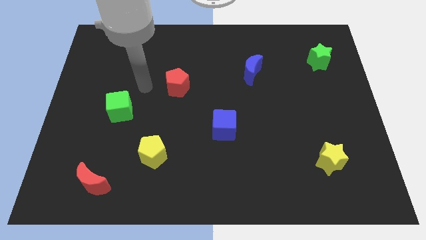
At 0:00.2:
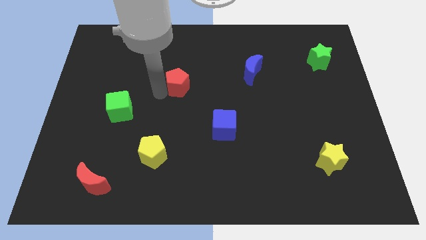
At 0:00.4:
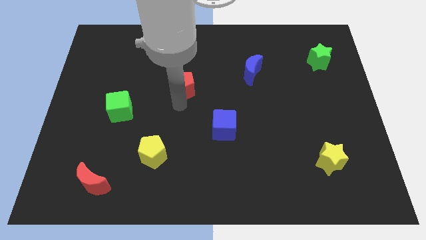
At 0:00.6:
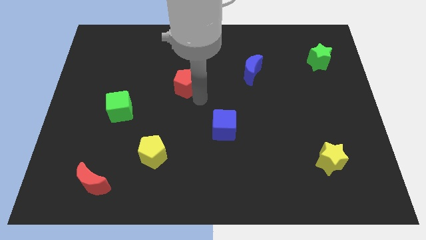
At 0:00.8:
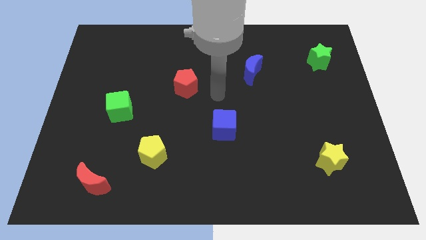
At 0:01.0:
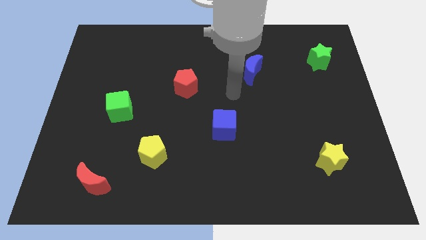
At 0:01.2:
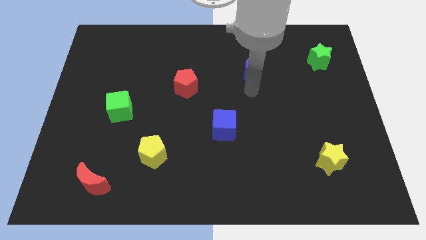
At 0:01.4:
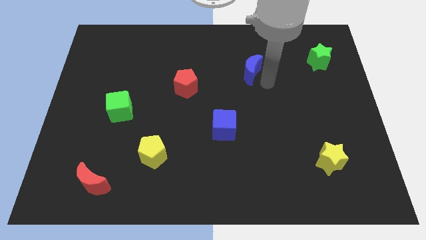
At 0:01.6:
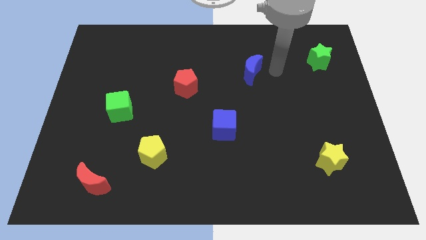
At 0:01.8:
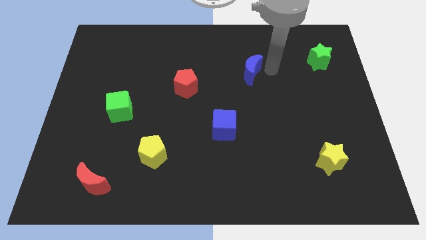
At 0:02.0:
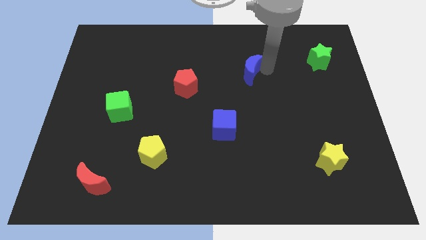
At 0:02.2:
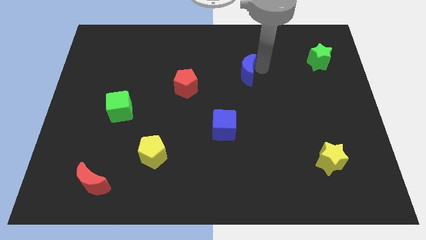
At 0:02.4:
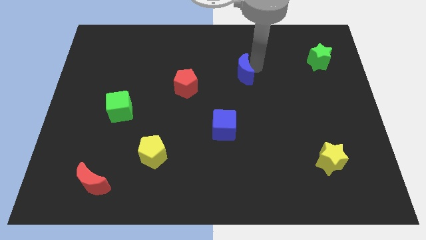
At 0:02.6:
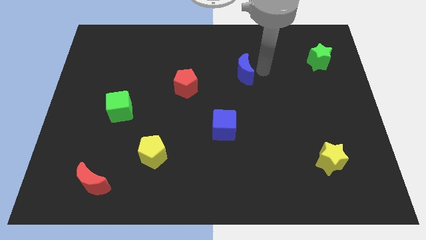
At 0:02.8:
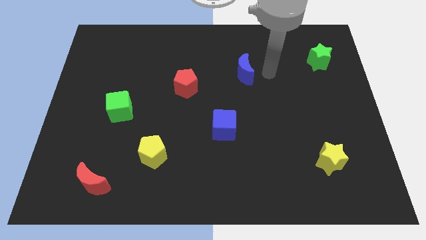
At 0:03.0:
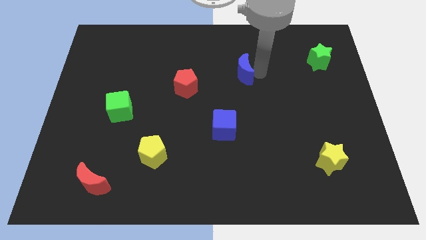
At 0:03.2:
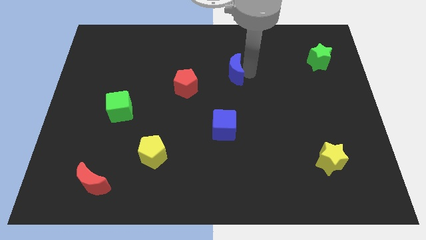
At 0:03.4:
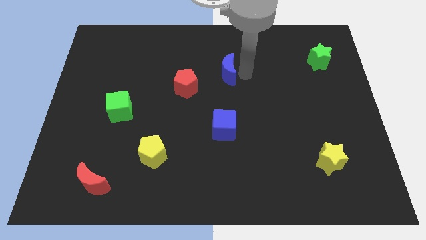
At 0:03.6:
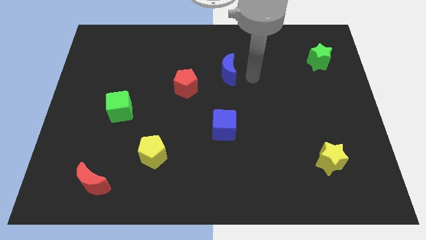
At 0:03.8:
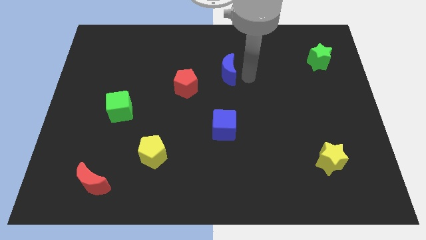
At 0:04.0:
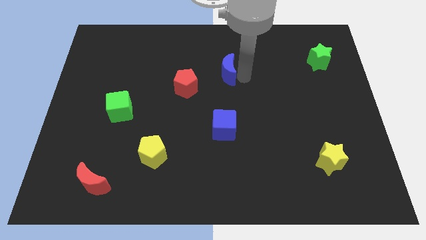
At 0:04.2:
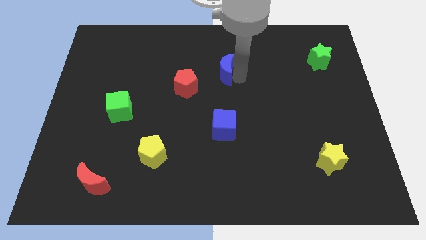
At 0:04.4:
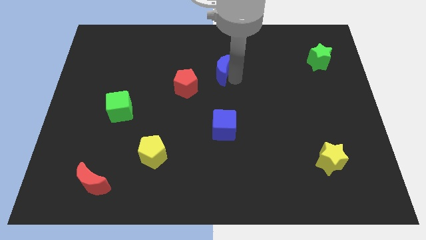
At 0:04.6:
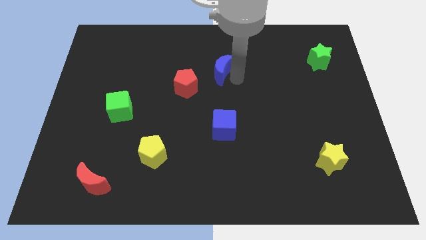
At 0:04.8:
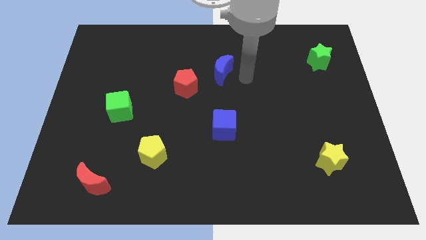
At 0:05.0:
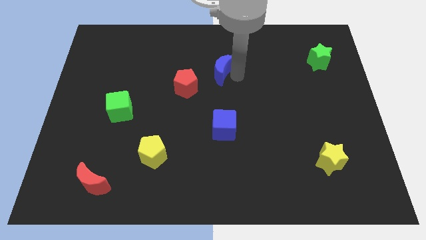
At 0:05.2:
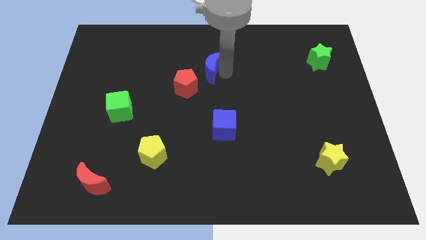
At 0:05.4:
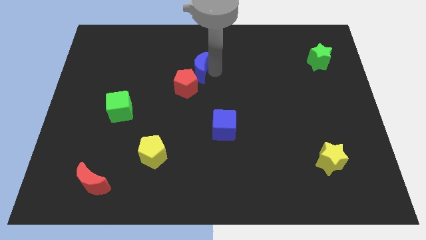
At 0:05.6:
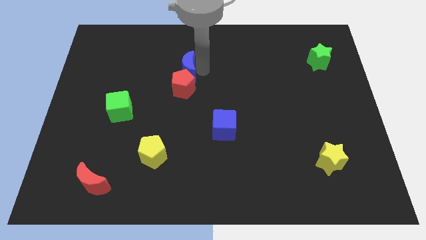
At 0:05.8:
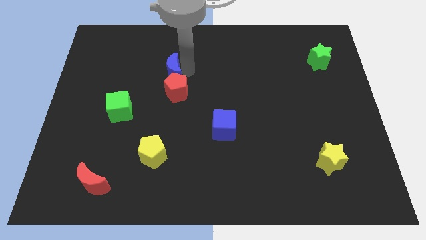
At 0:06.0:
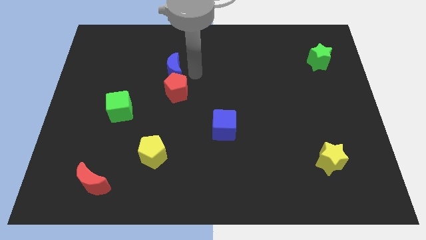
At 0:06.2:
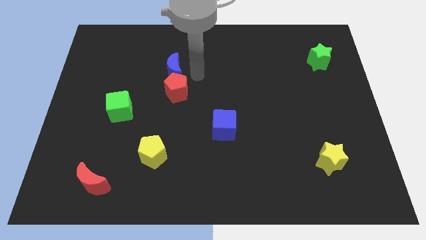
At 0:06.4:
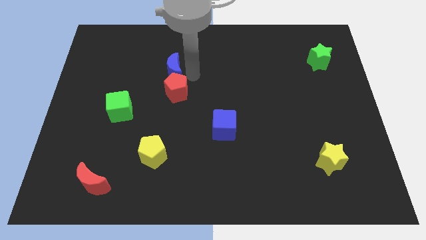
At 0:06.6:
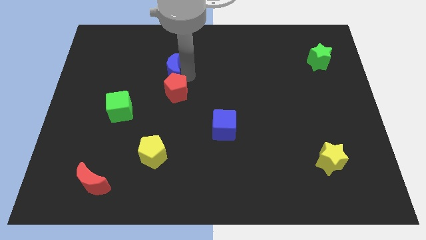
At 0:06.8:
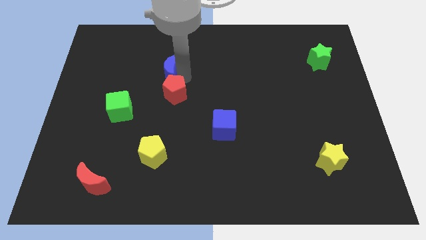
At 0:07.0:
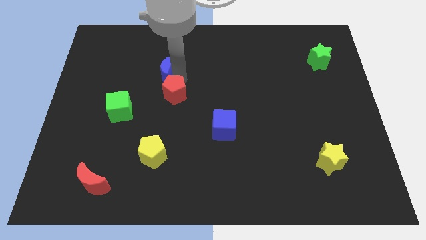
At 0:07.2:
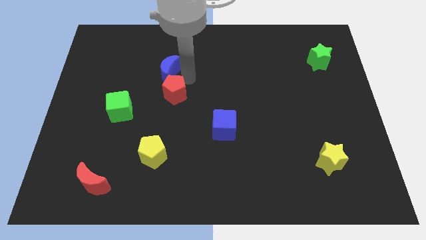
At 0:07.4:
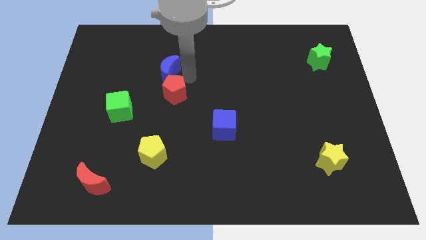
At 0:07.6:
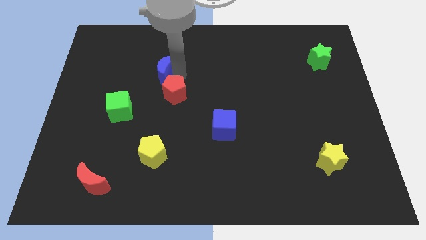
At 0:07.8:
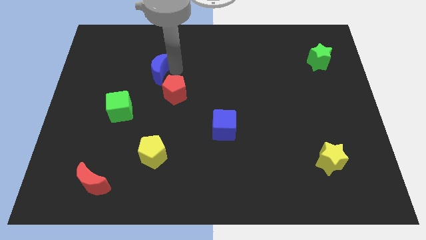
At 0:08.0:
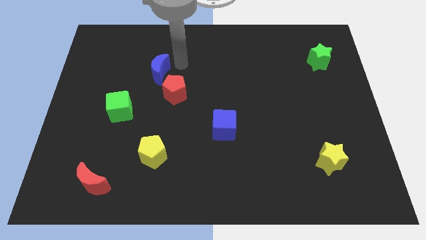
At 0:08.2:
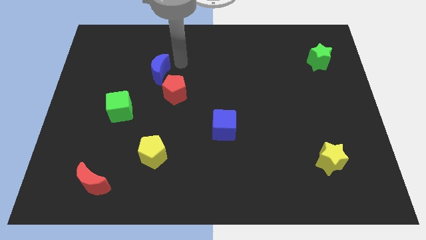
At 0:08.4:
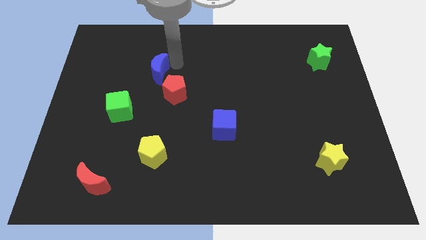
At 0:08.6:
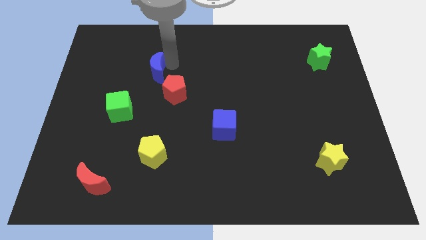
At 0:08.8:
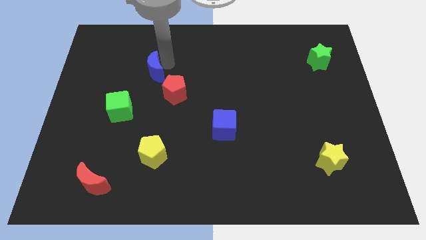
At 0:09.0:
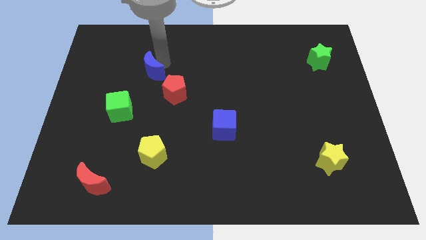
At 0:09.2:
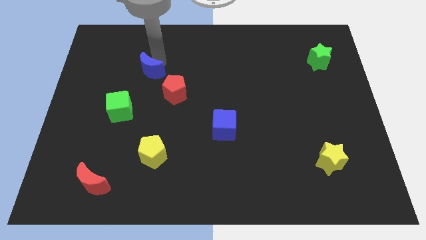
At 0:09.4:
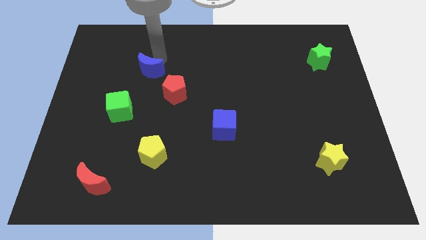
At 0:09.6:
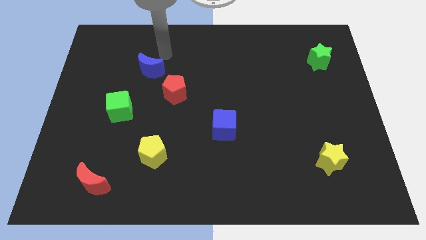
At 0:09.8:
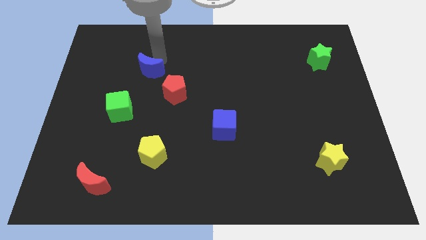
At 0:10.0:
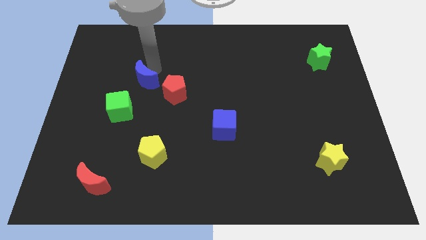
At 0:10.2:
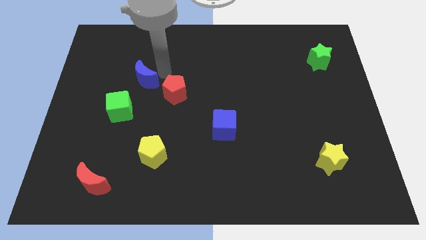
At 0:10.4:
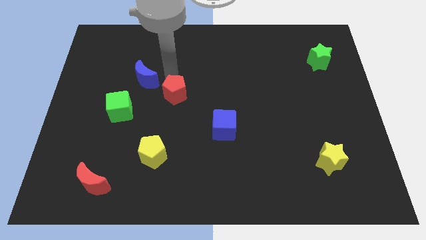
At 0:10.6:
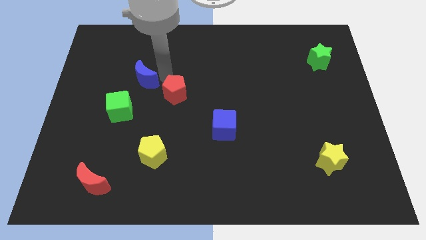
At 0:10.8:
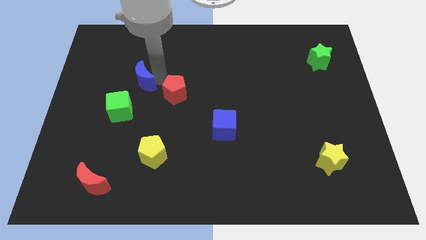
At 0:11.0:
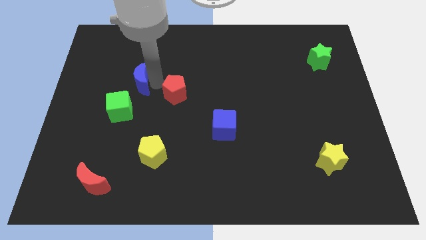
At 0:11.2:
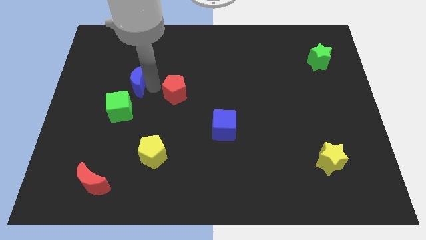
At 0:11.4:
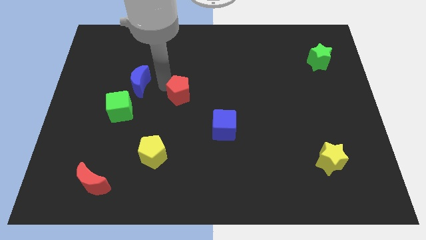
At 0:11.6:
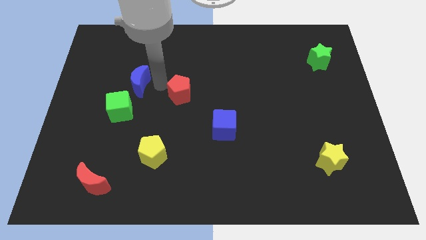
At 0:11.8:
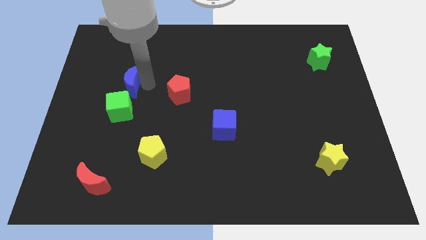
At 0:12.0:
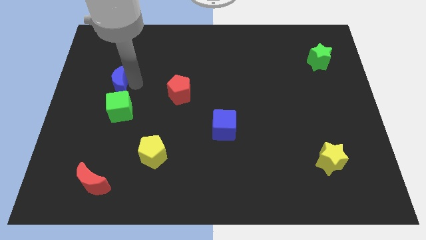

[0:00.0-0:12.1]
slide the blue moon to the top left of the green cube

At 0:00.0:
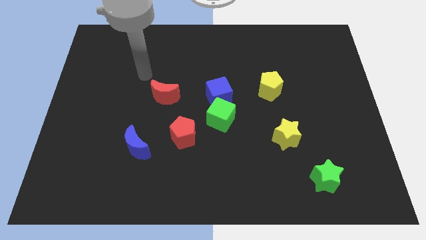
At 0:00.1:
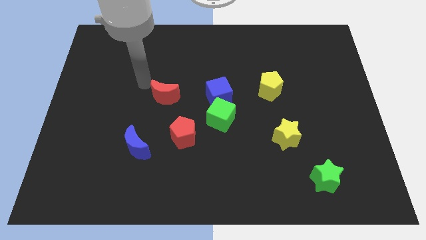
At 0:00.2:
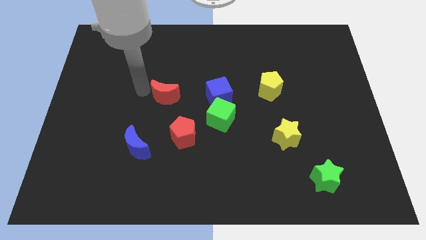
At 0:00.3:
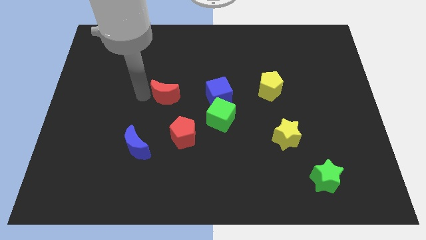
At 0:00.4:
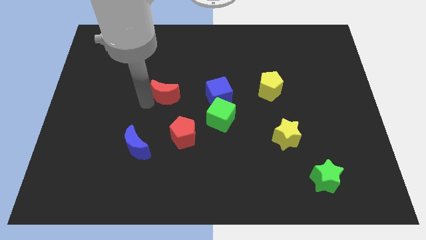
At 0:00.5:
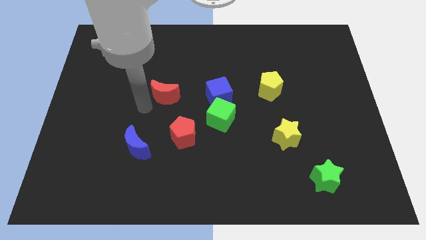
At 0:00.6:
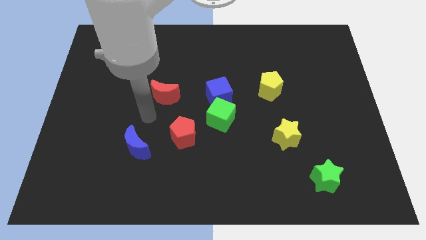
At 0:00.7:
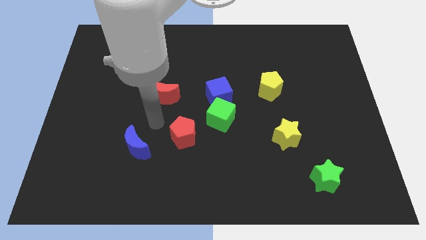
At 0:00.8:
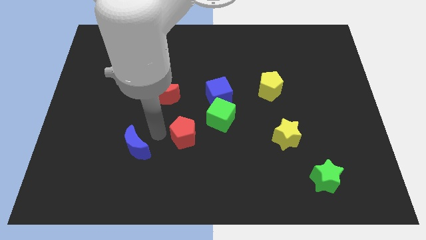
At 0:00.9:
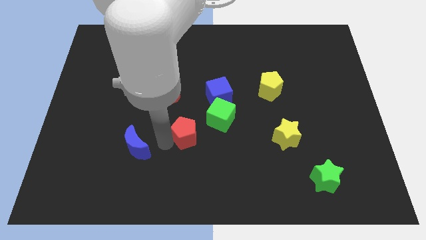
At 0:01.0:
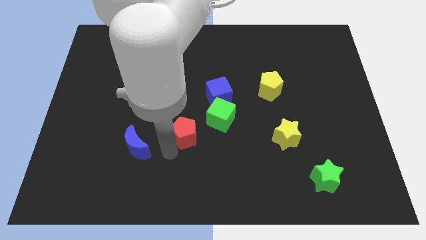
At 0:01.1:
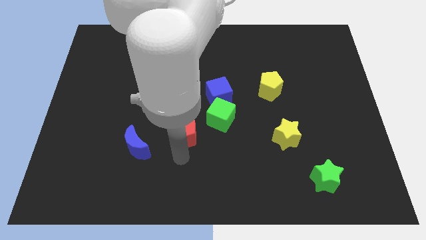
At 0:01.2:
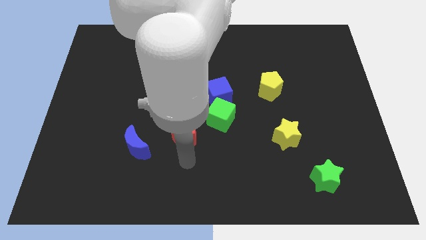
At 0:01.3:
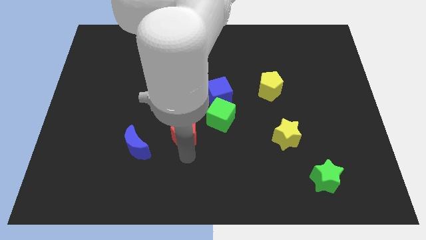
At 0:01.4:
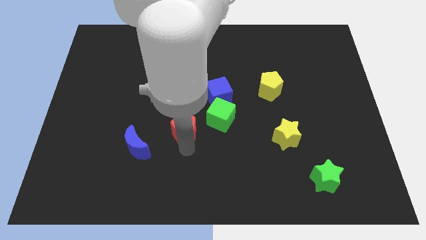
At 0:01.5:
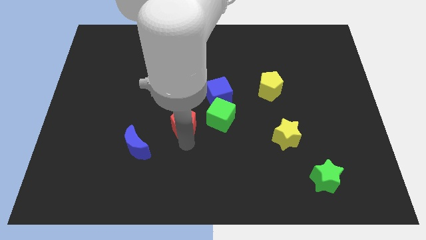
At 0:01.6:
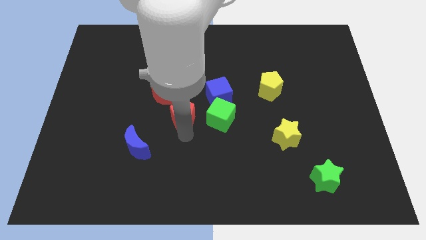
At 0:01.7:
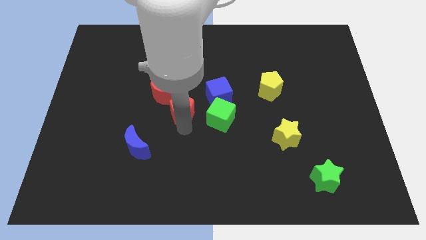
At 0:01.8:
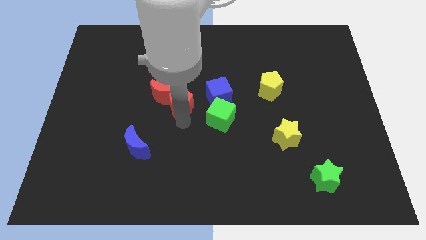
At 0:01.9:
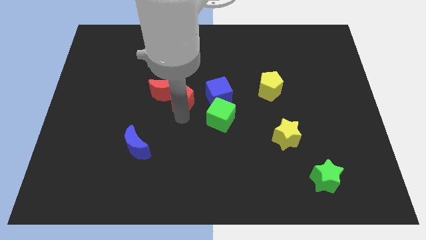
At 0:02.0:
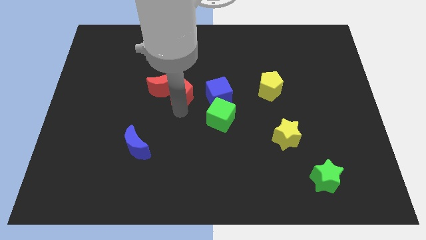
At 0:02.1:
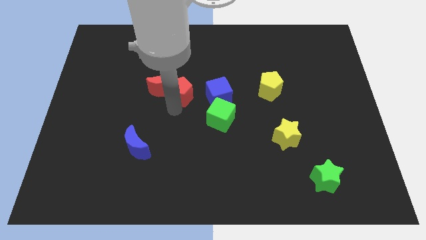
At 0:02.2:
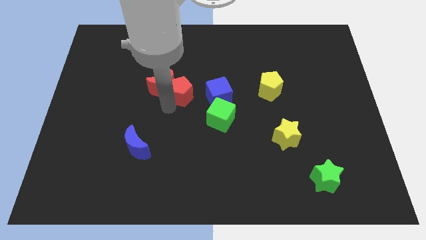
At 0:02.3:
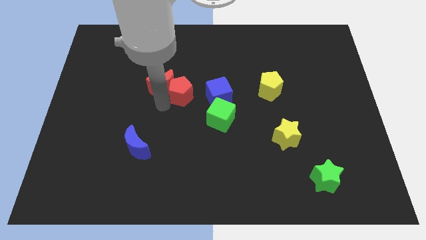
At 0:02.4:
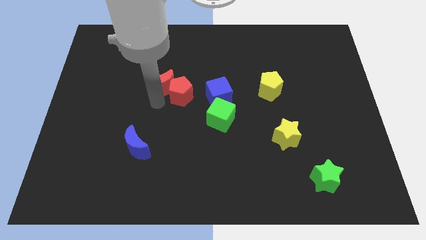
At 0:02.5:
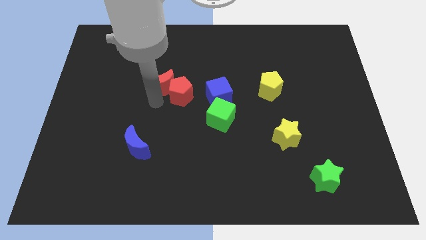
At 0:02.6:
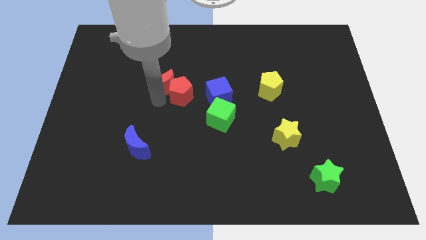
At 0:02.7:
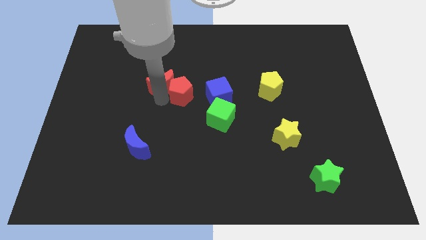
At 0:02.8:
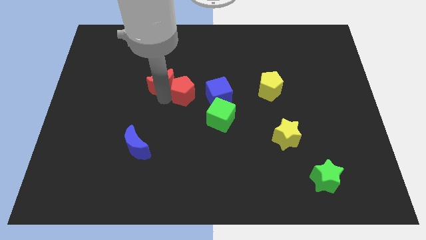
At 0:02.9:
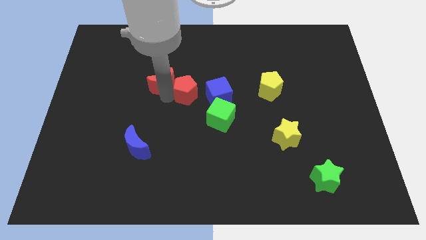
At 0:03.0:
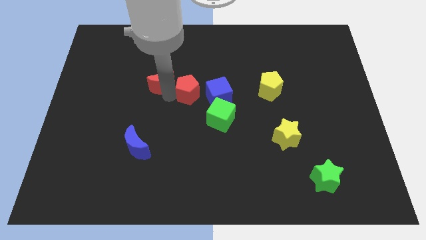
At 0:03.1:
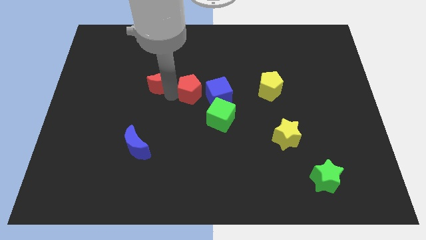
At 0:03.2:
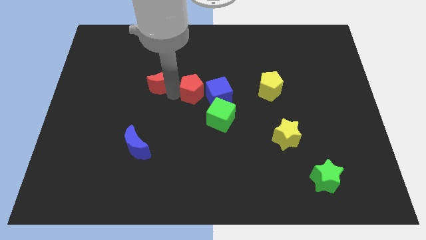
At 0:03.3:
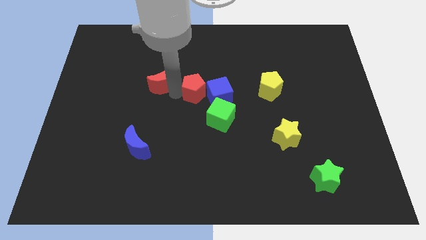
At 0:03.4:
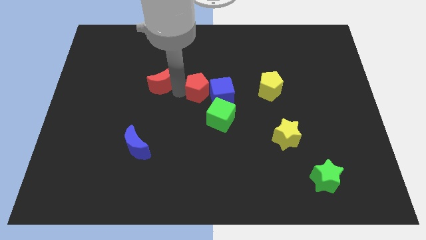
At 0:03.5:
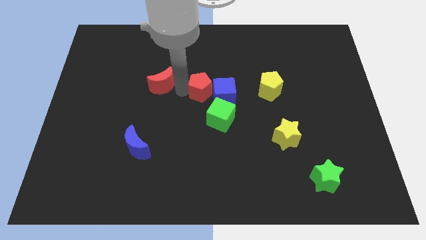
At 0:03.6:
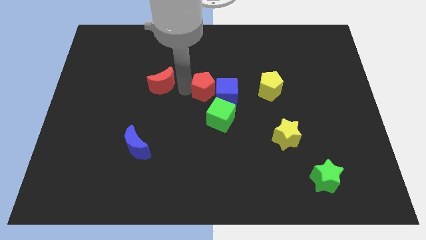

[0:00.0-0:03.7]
push the red pentagon left of the yellow pentagon
